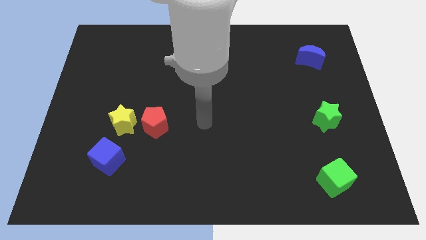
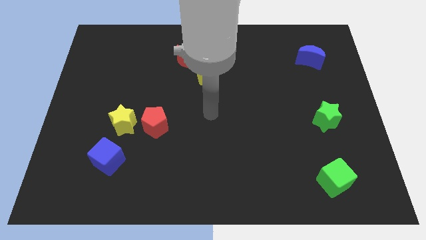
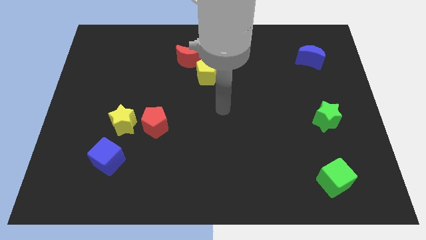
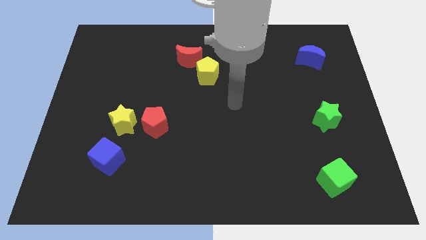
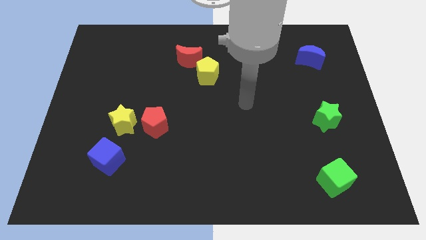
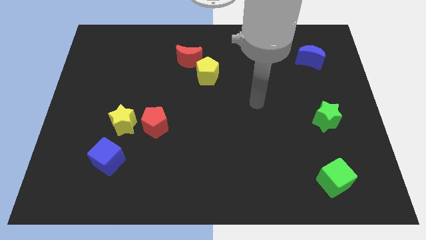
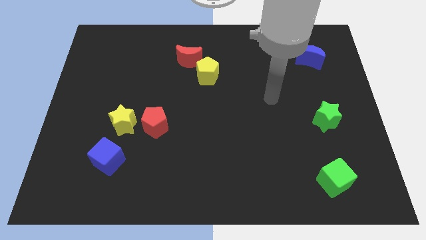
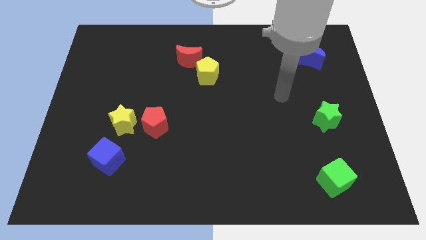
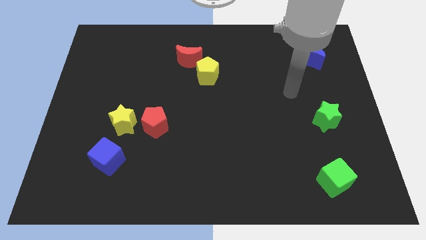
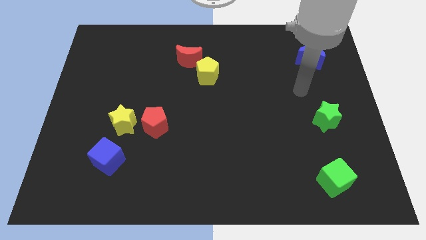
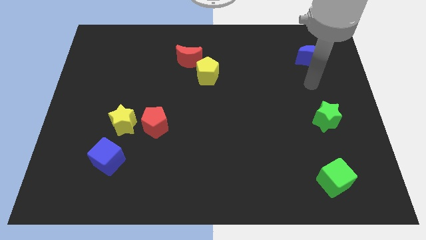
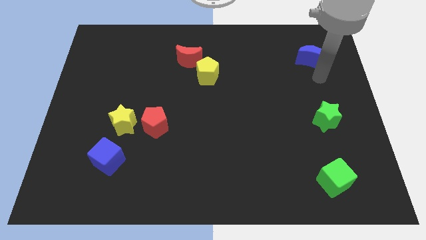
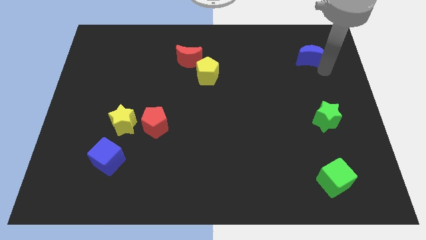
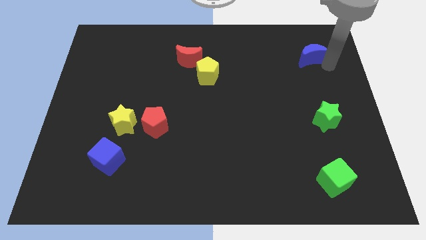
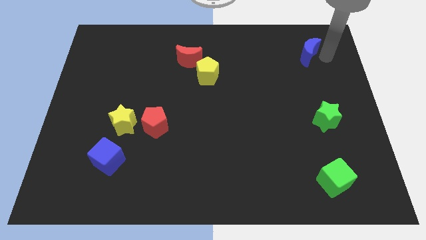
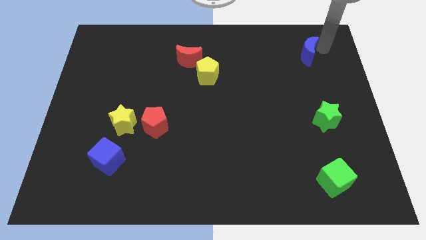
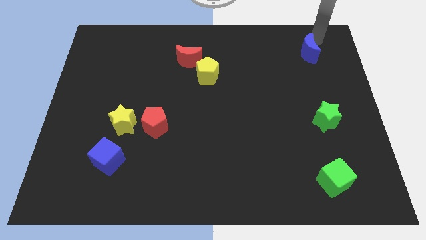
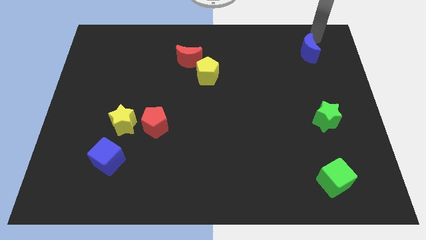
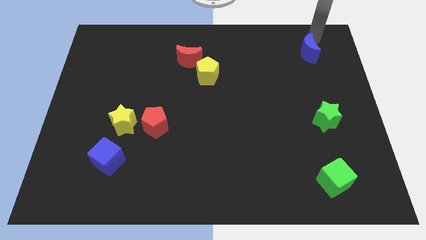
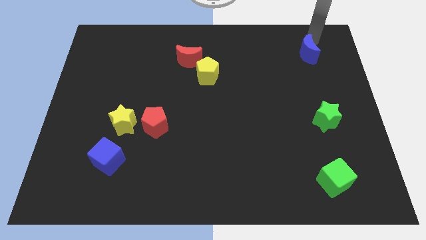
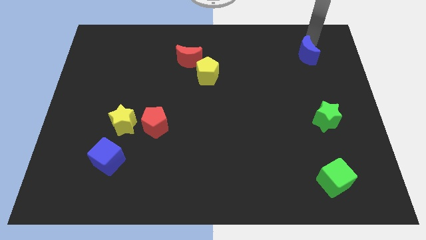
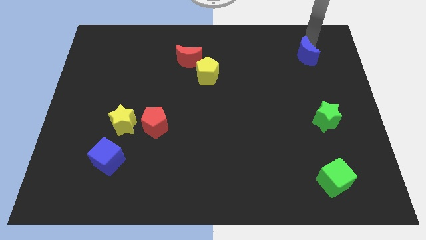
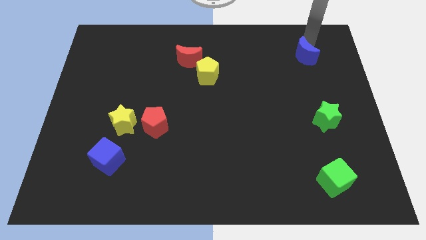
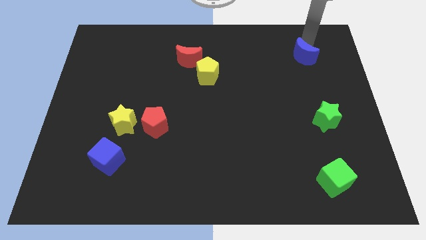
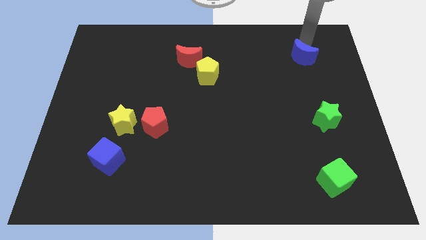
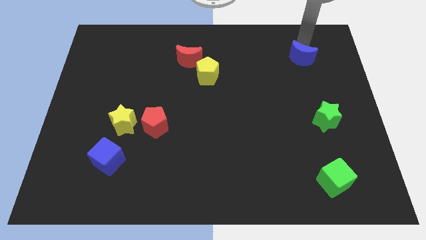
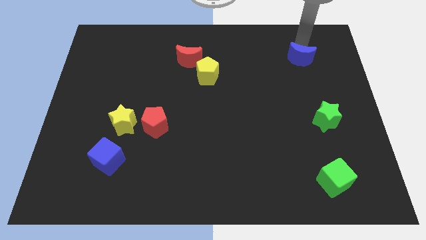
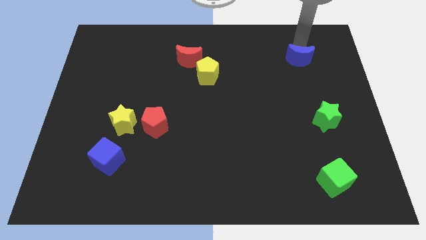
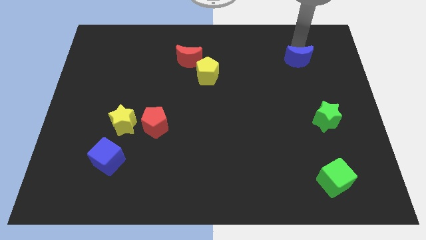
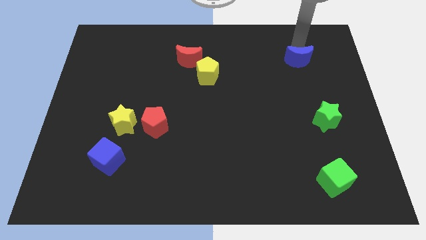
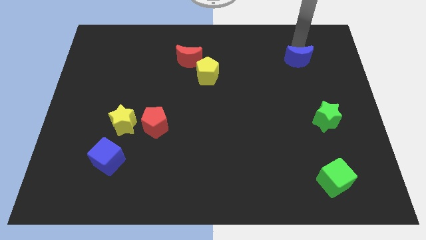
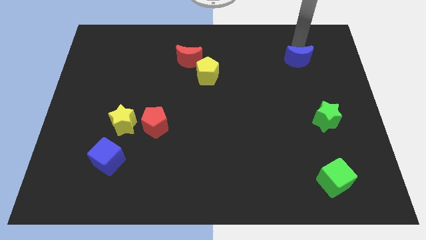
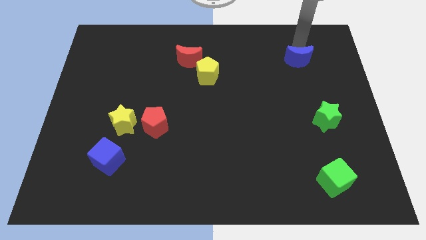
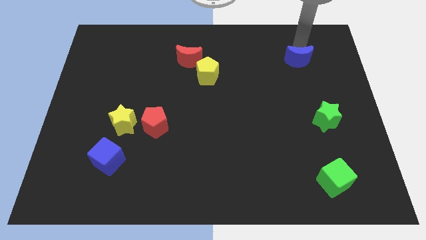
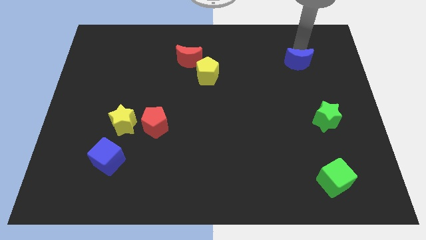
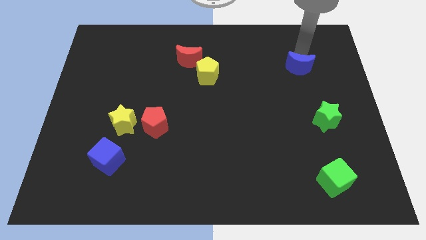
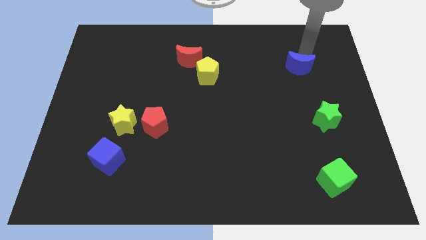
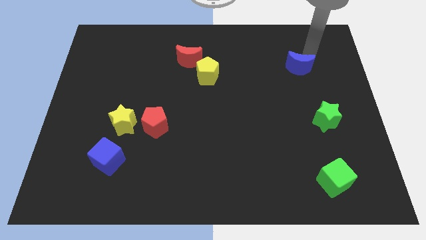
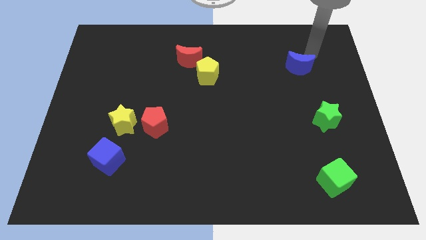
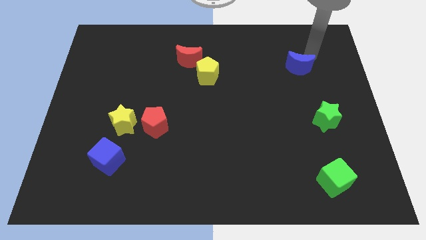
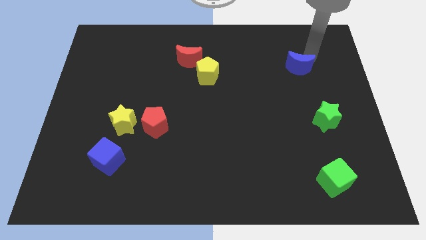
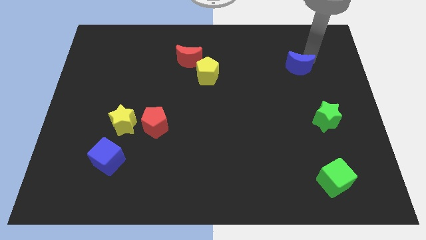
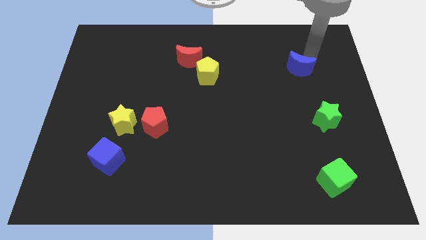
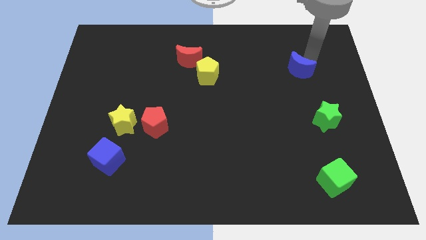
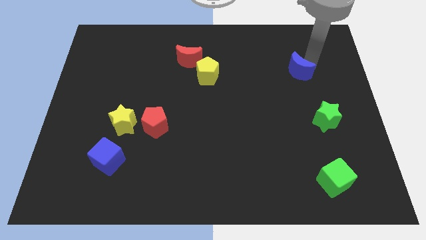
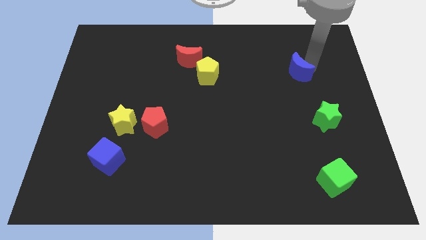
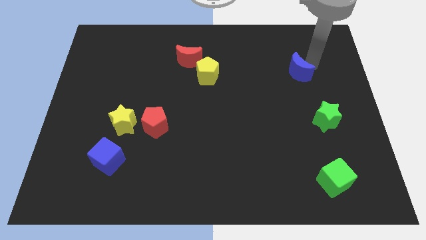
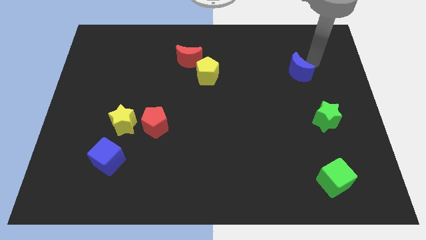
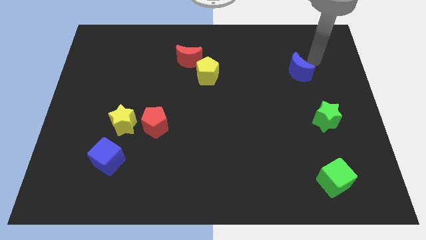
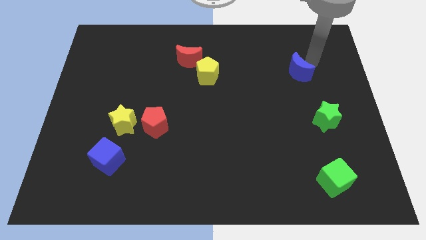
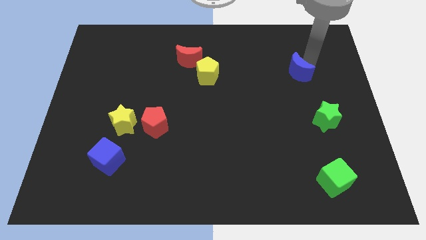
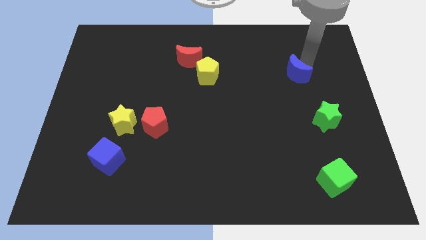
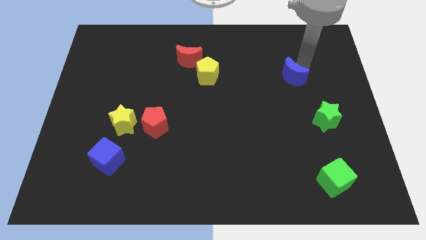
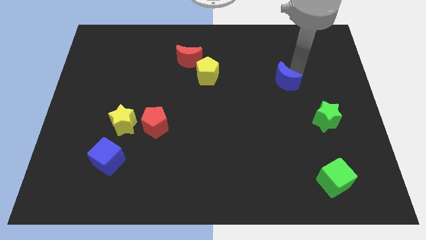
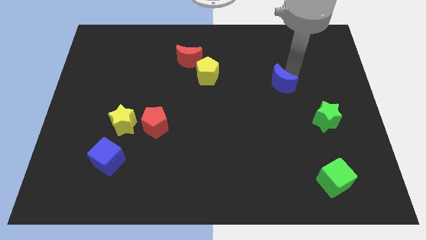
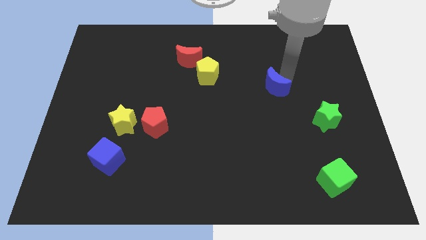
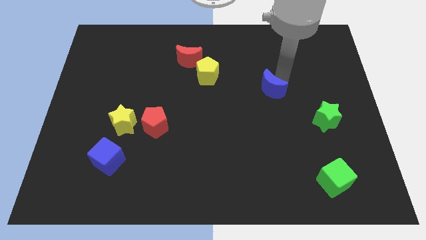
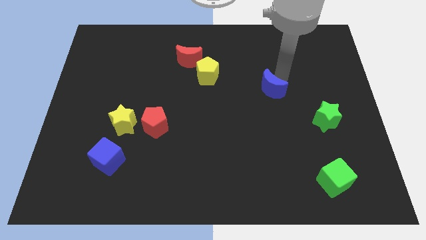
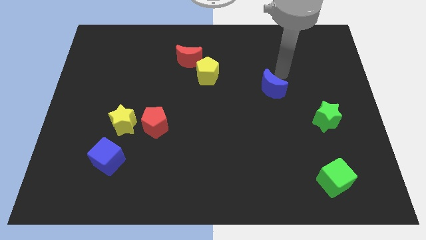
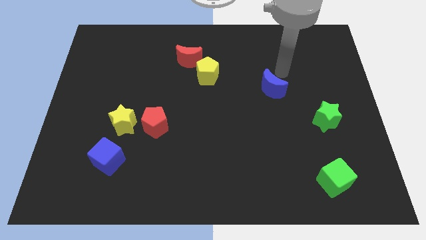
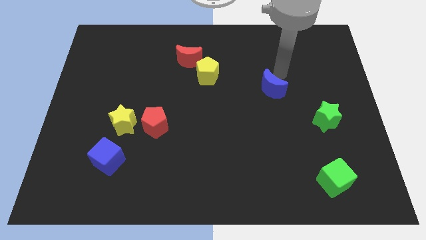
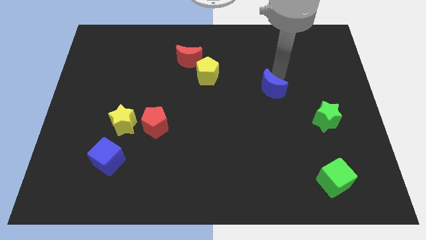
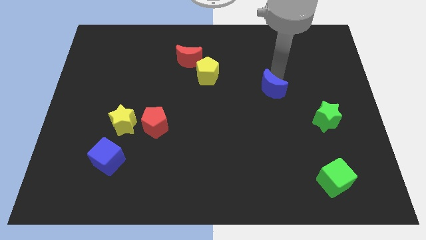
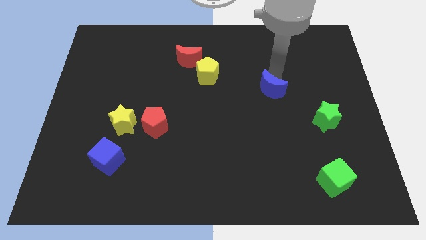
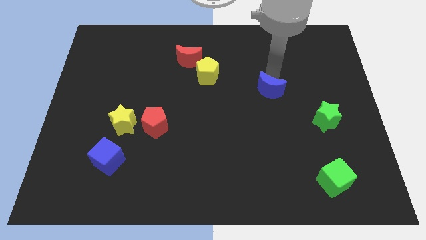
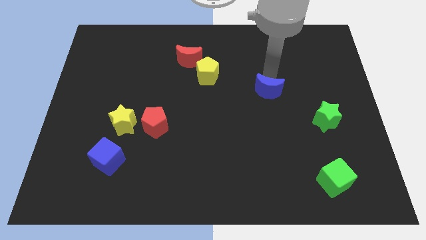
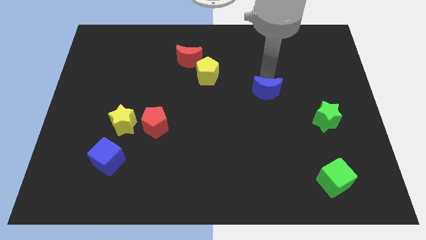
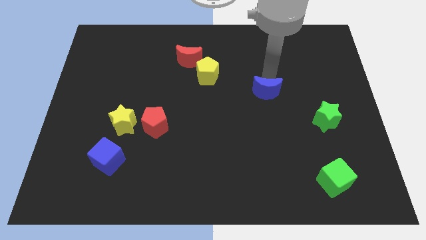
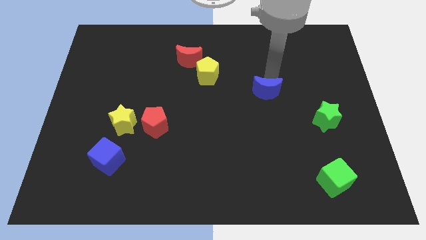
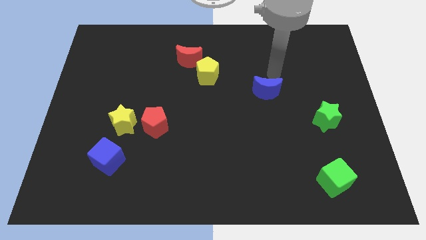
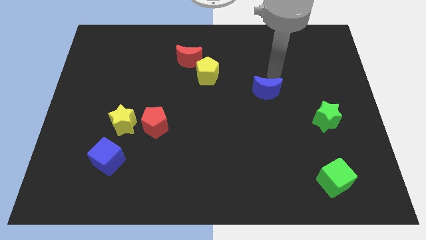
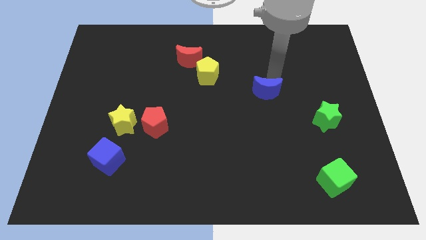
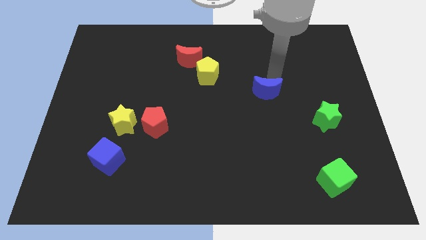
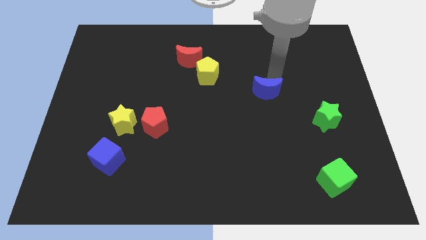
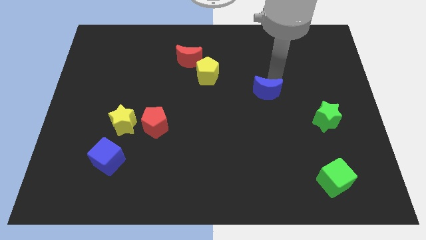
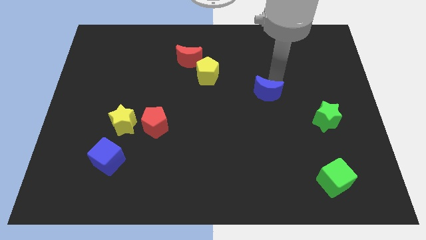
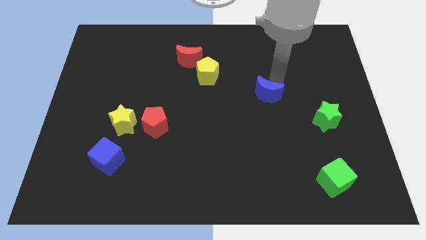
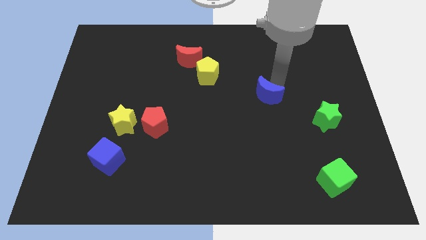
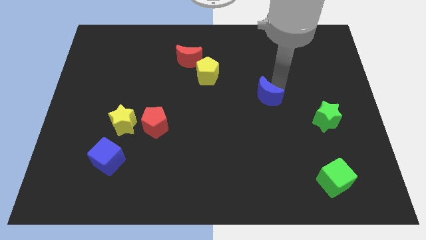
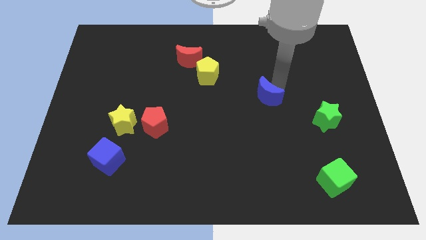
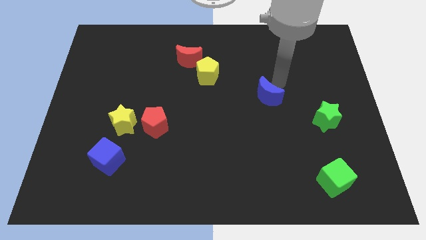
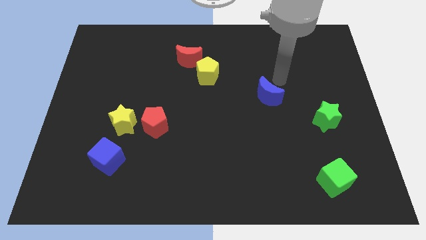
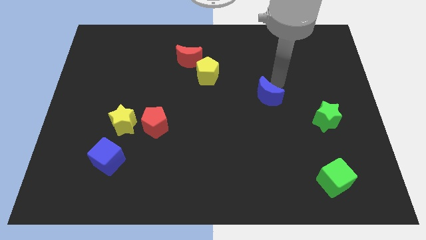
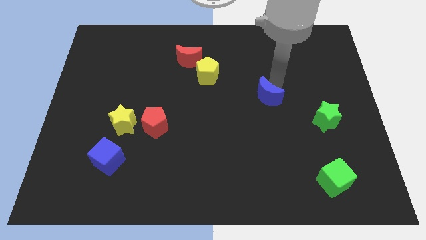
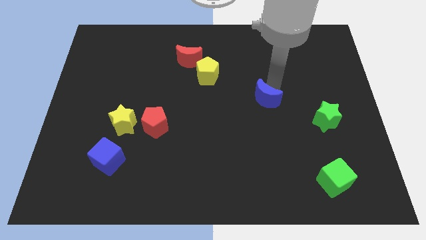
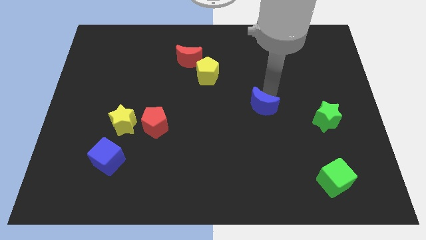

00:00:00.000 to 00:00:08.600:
move the blue moon downwards and to the left
